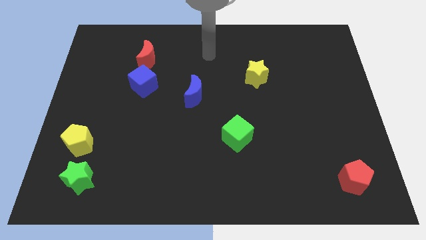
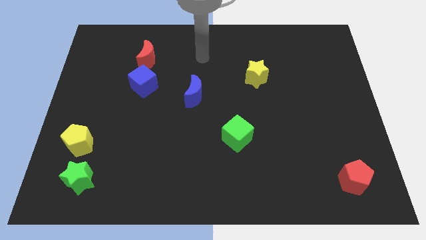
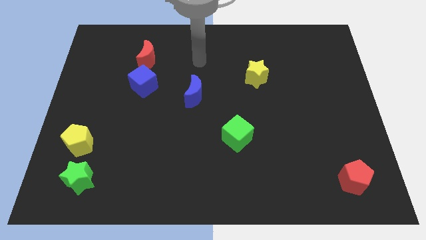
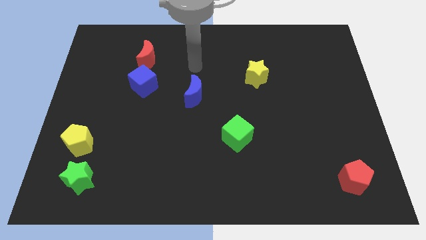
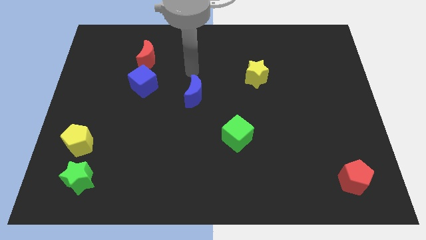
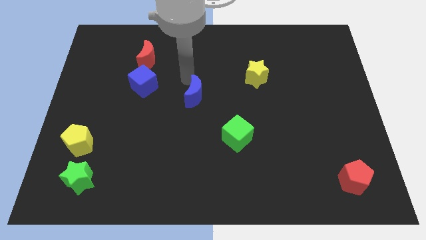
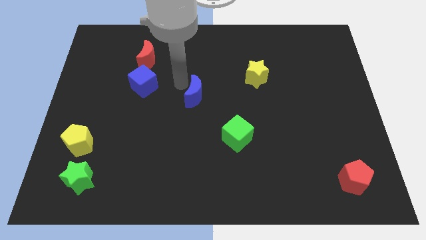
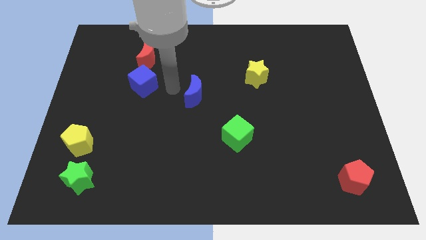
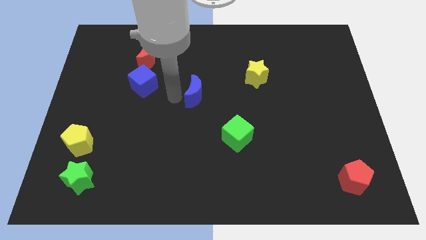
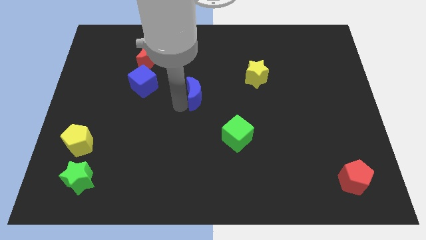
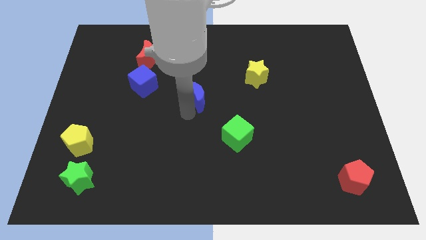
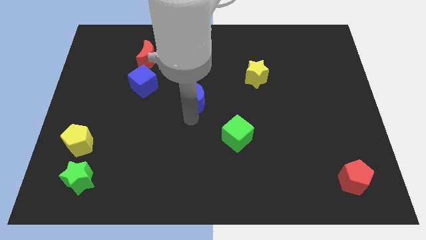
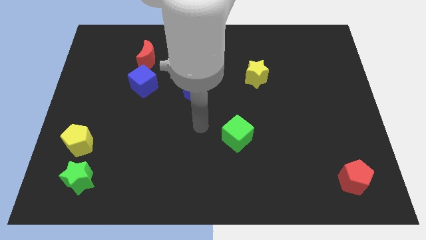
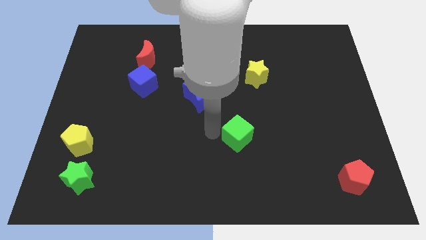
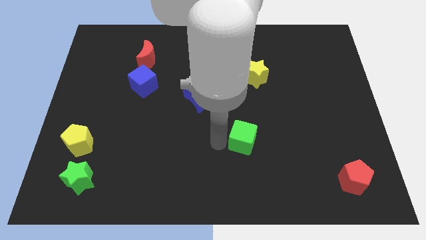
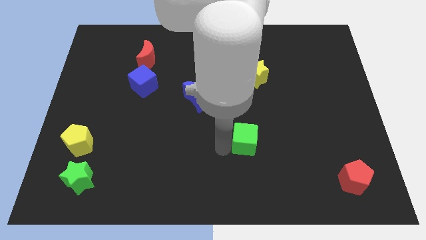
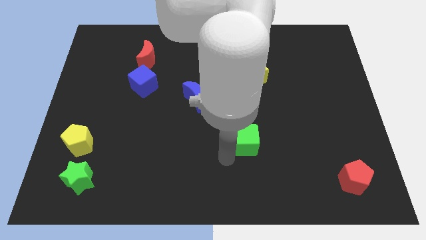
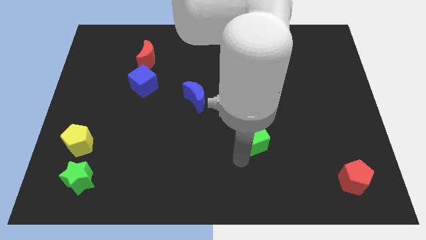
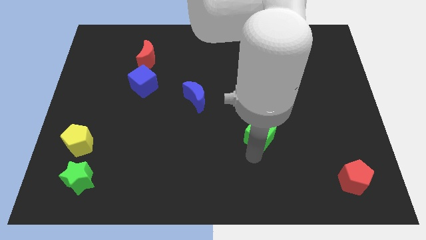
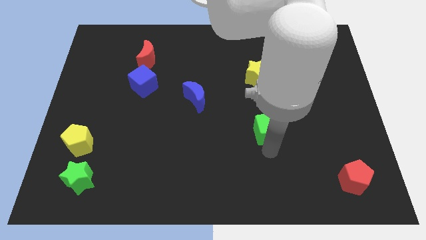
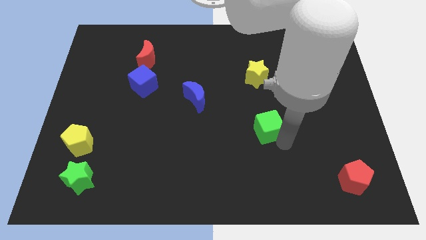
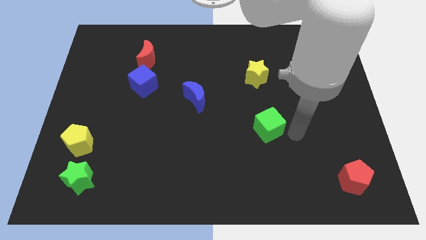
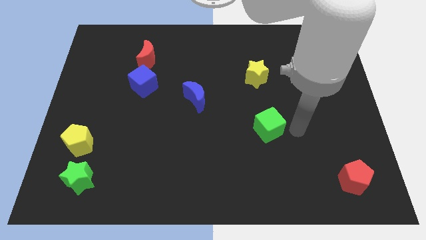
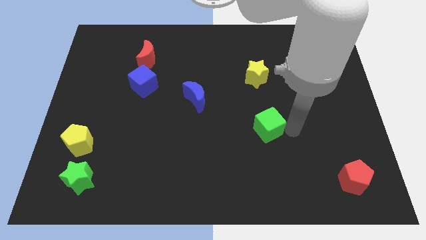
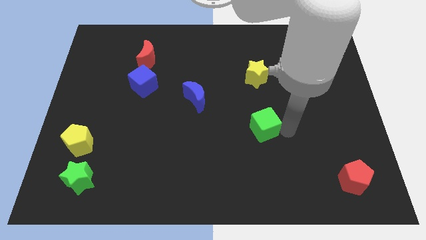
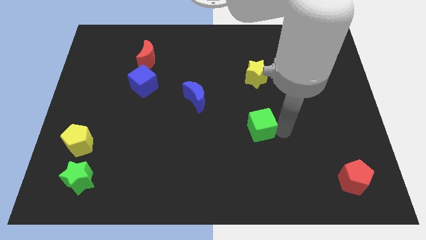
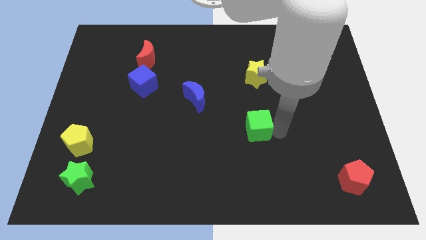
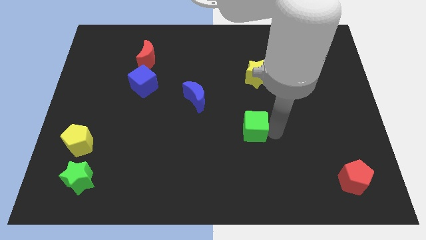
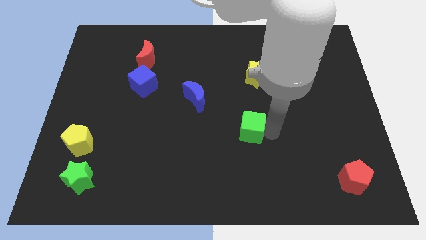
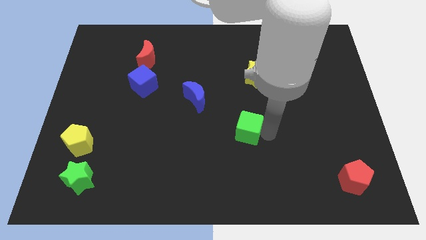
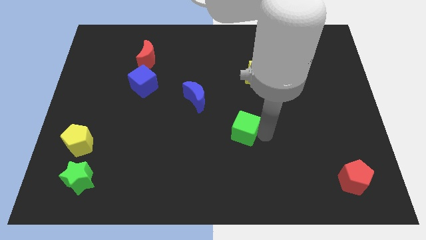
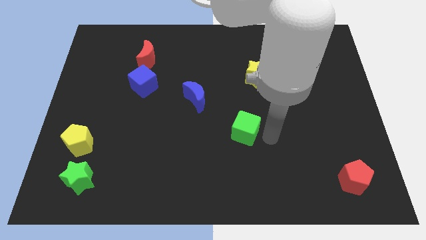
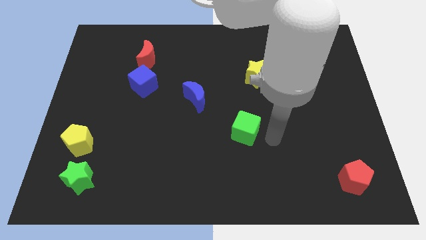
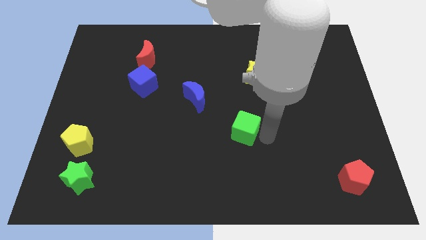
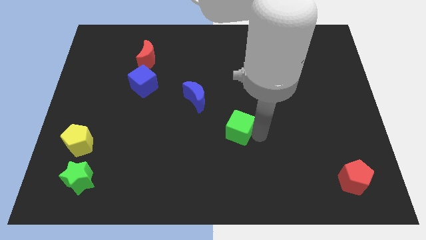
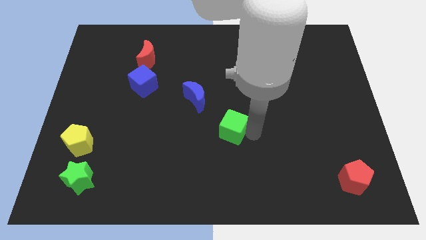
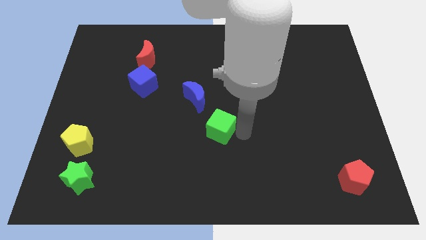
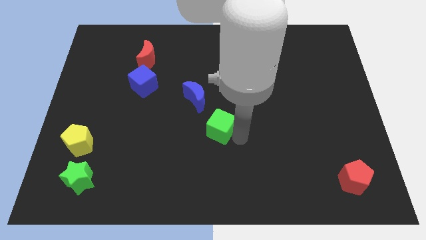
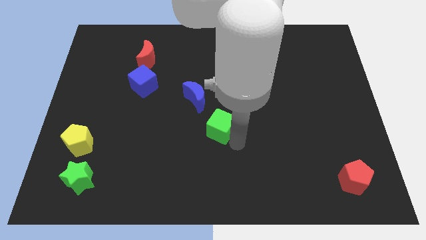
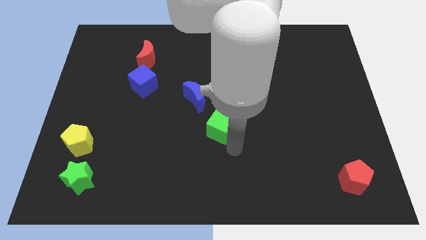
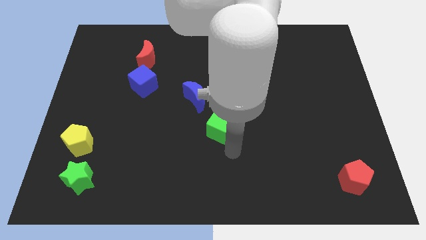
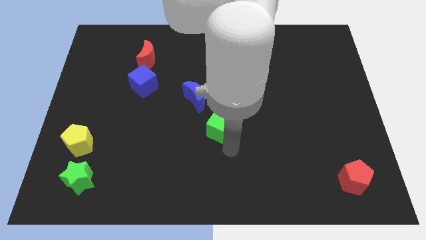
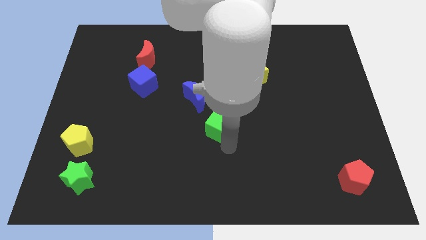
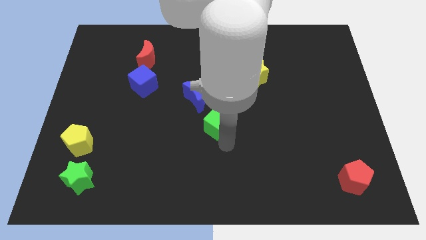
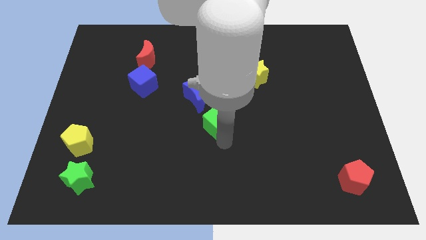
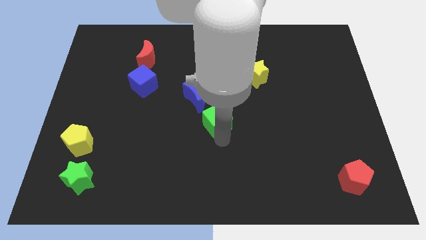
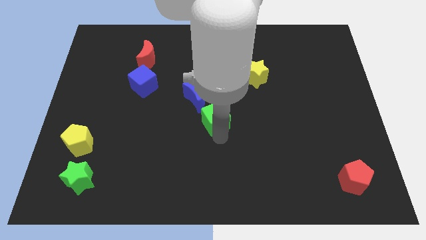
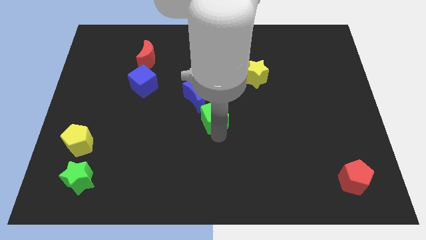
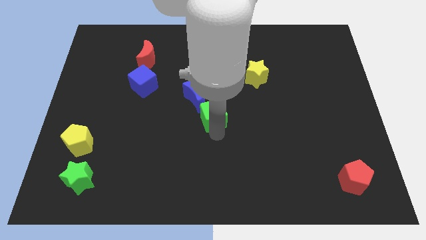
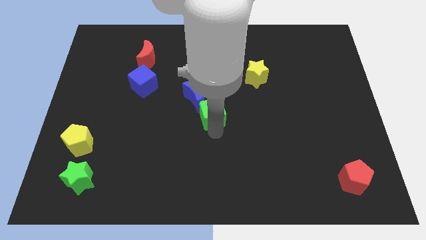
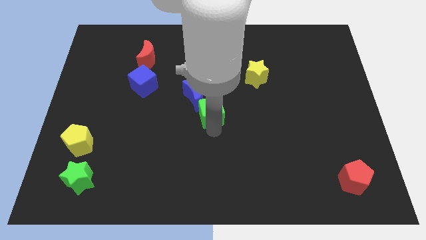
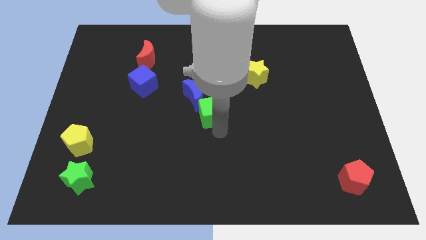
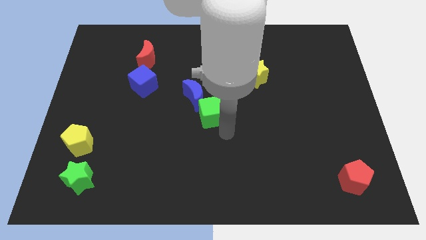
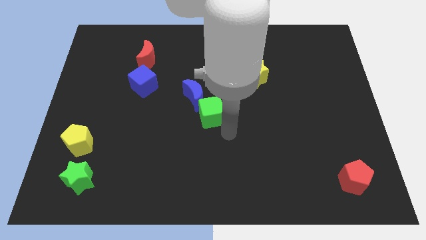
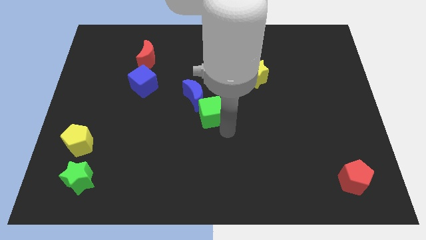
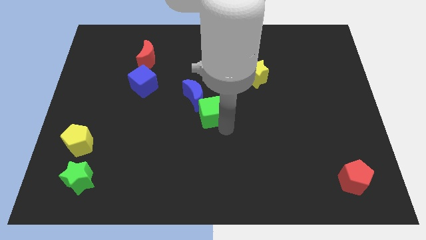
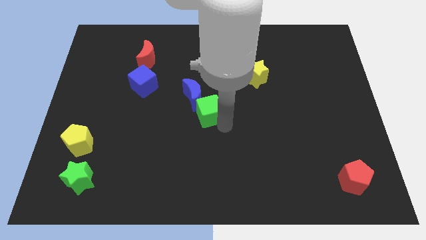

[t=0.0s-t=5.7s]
push the green cube close to the blue moon
